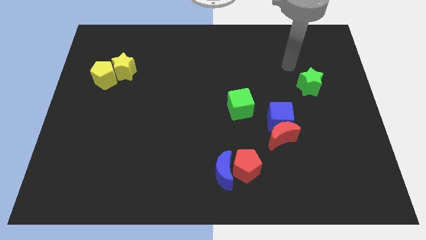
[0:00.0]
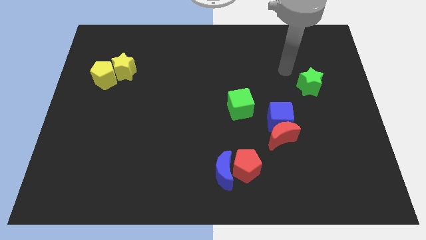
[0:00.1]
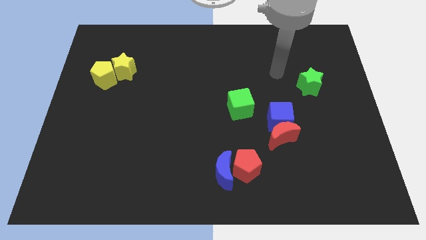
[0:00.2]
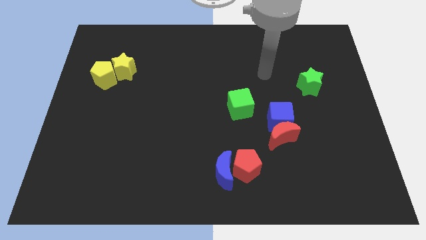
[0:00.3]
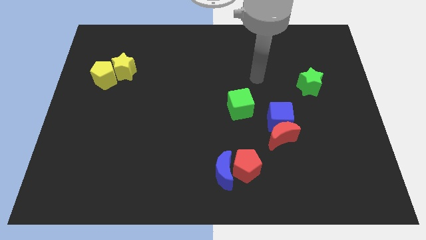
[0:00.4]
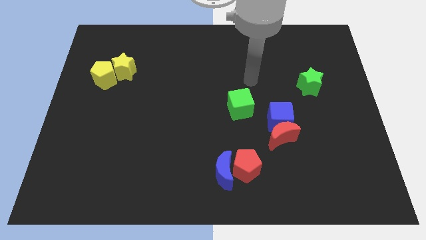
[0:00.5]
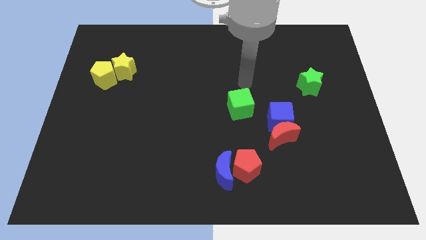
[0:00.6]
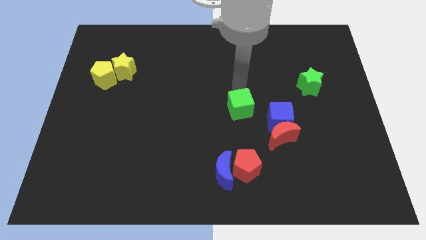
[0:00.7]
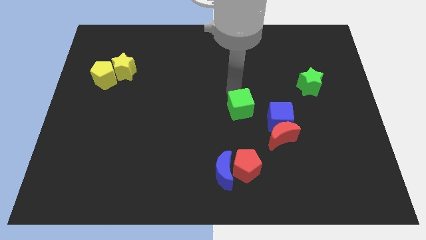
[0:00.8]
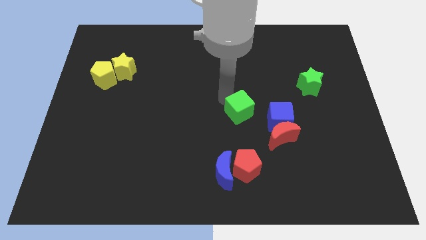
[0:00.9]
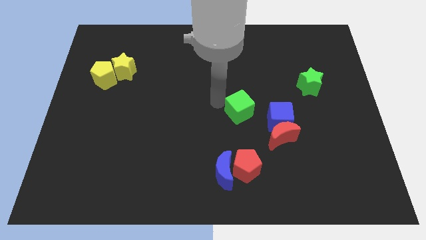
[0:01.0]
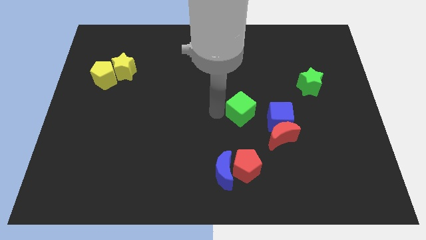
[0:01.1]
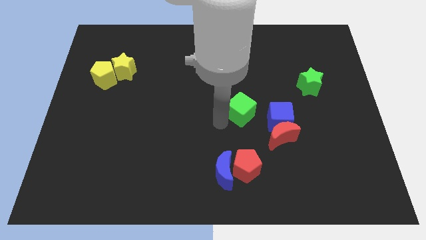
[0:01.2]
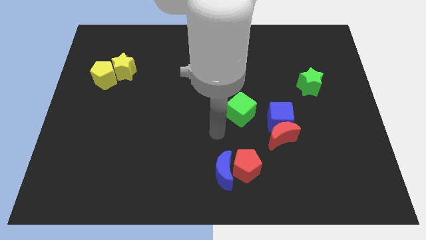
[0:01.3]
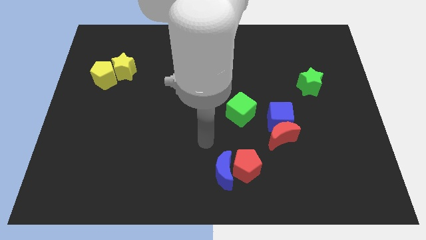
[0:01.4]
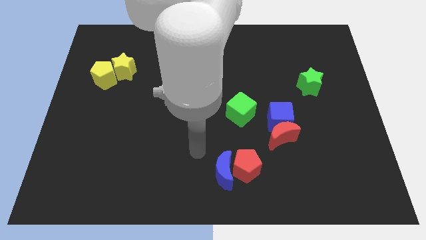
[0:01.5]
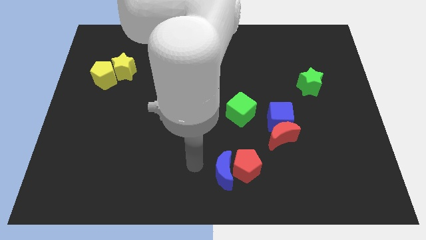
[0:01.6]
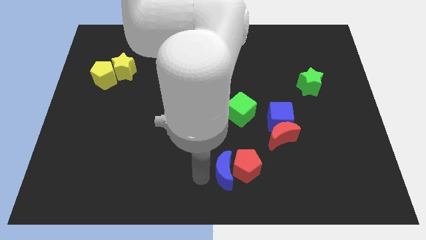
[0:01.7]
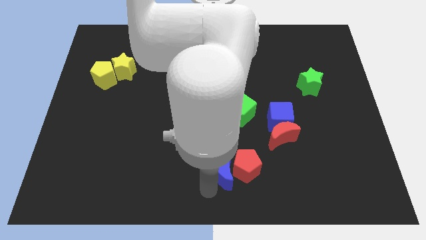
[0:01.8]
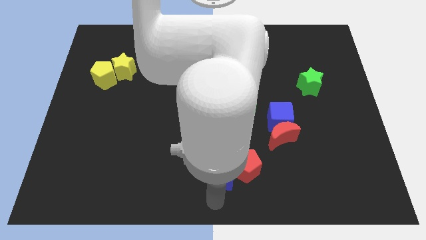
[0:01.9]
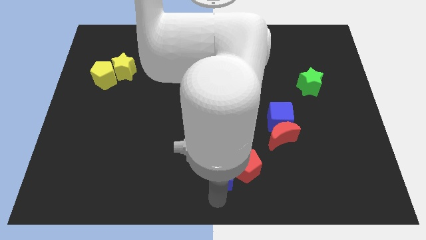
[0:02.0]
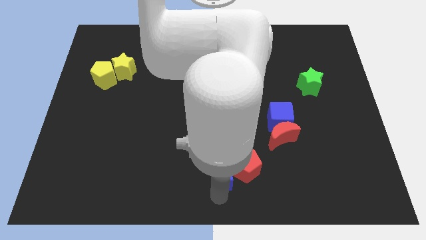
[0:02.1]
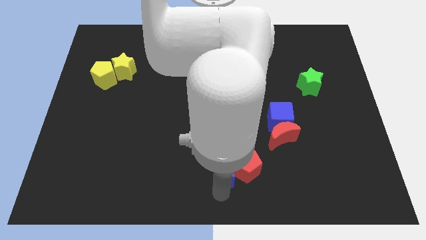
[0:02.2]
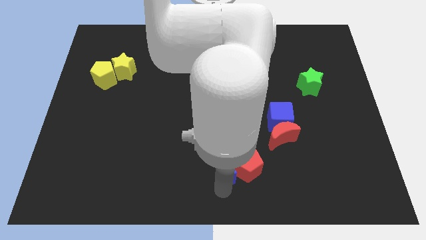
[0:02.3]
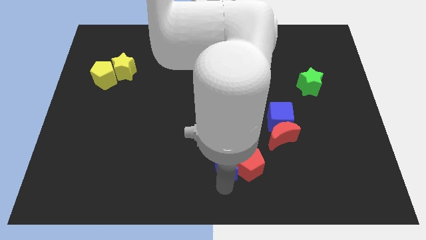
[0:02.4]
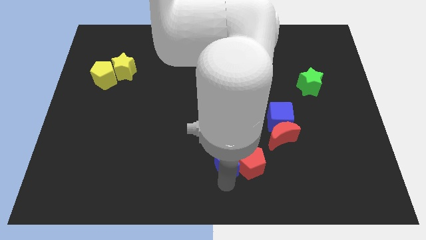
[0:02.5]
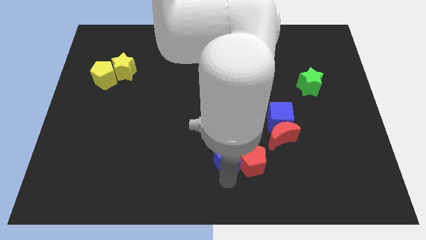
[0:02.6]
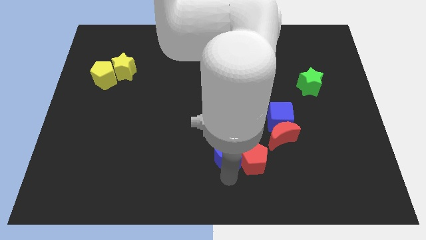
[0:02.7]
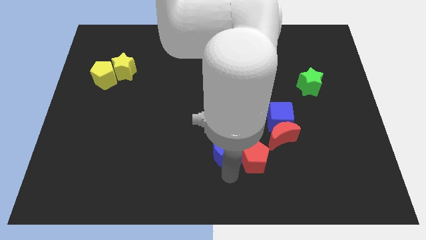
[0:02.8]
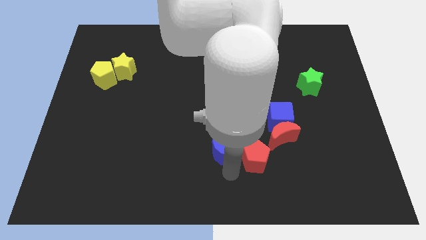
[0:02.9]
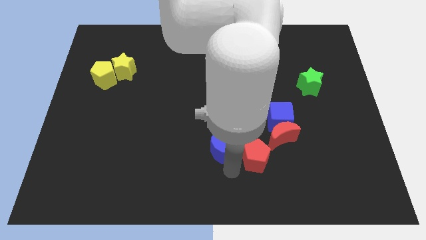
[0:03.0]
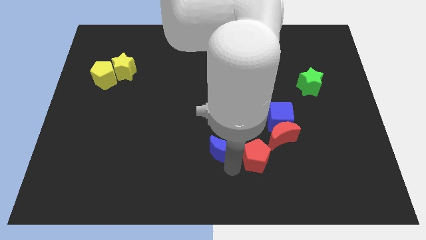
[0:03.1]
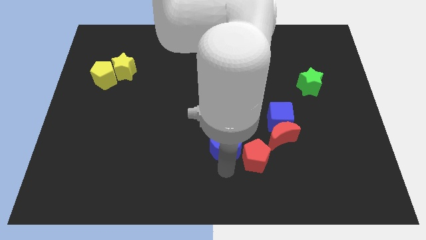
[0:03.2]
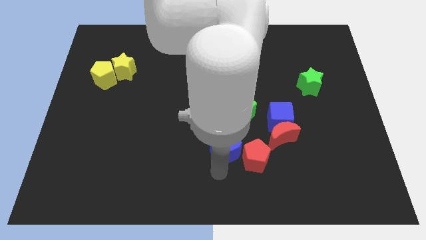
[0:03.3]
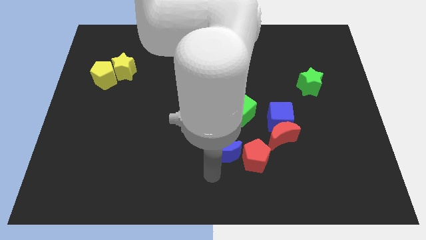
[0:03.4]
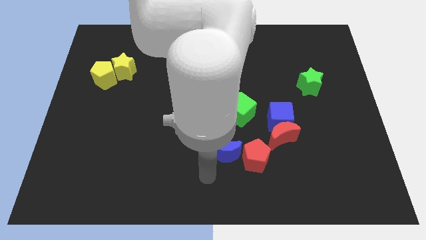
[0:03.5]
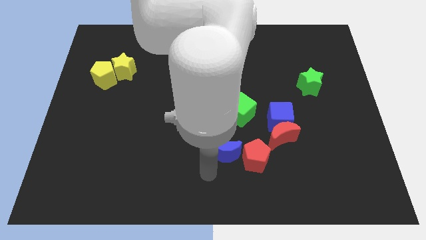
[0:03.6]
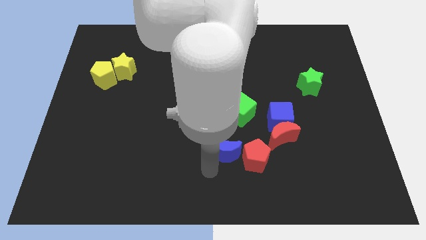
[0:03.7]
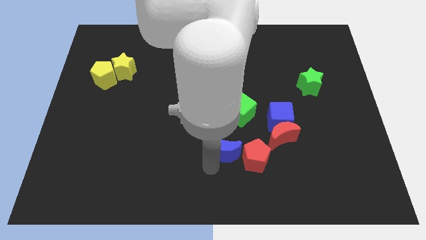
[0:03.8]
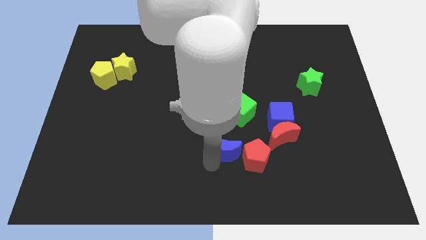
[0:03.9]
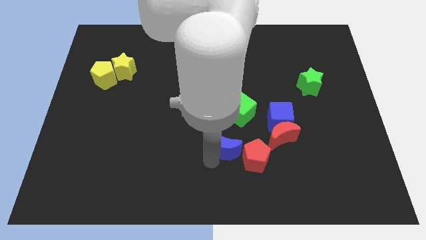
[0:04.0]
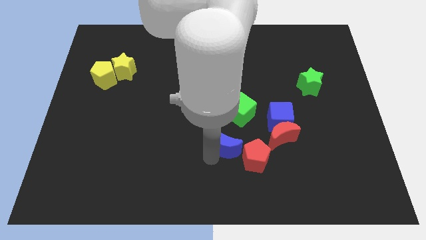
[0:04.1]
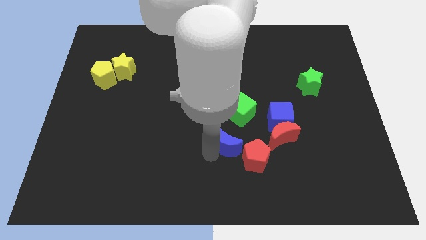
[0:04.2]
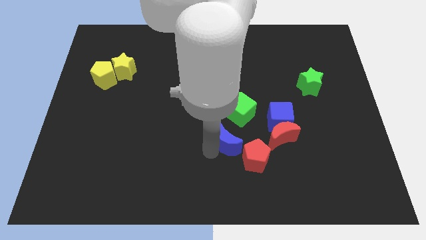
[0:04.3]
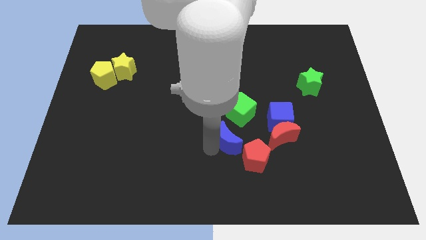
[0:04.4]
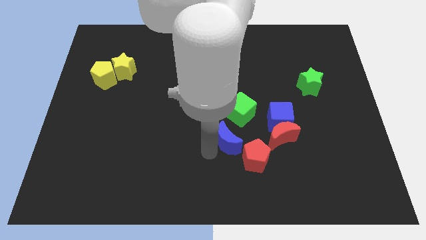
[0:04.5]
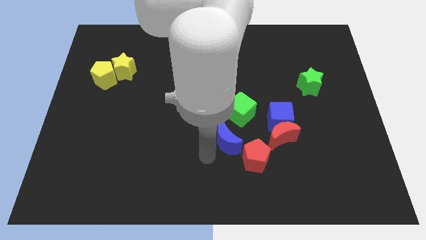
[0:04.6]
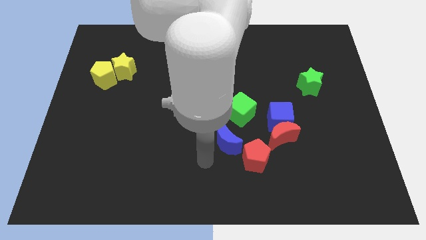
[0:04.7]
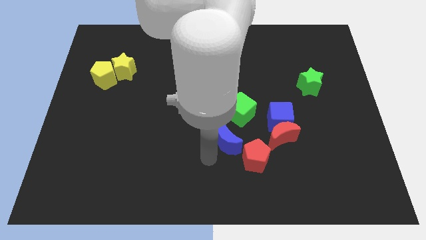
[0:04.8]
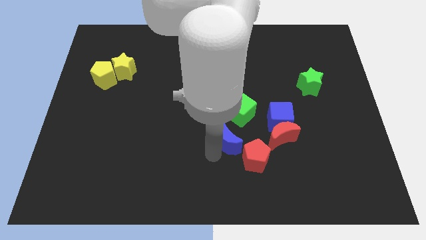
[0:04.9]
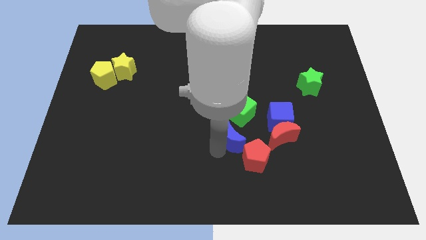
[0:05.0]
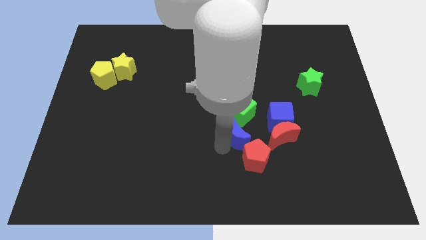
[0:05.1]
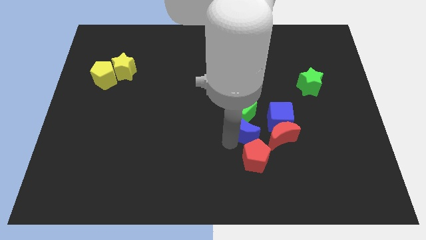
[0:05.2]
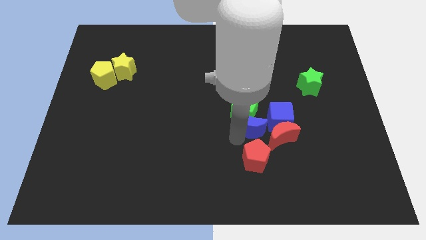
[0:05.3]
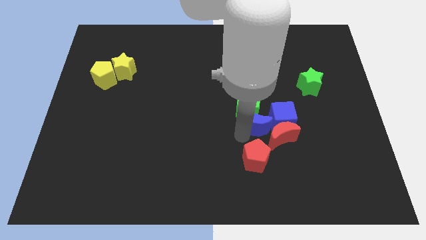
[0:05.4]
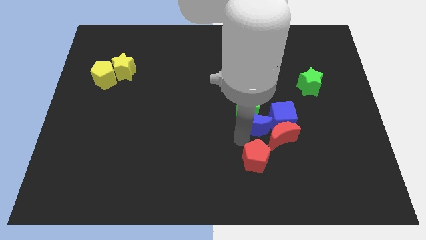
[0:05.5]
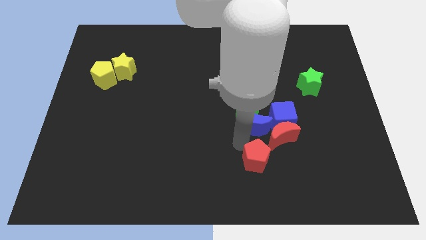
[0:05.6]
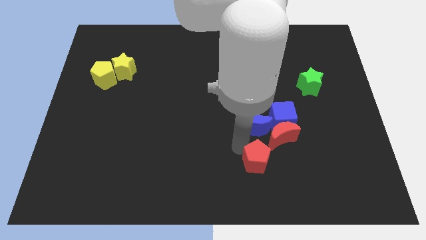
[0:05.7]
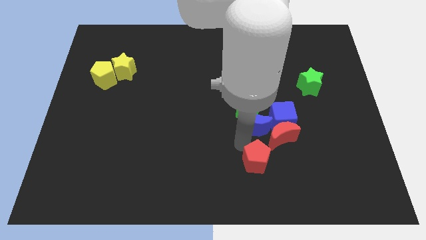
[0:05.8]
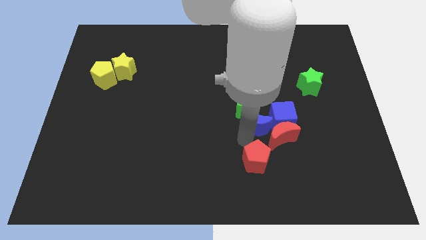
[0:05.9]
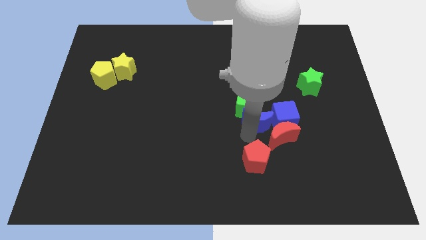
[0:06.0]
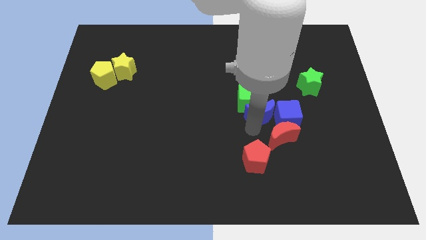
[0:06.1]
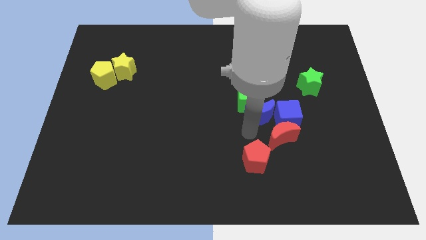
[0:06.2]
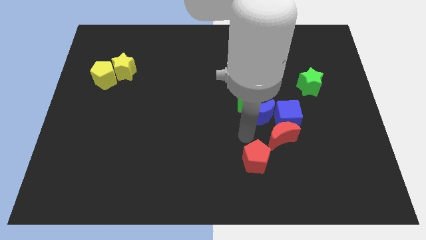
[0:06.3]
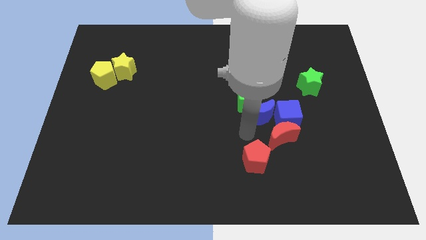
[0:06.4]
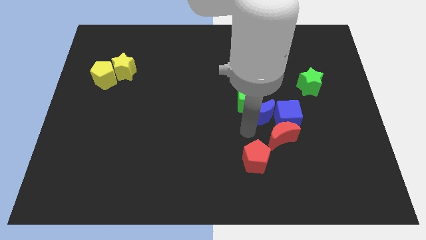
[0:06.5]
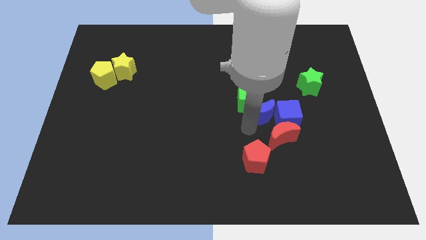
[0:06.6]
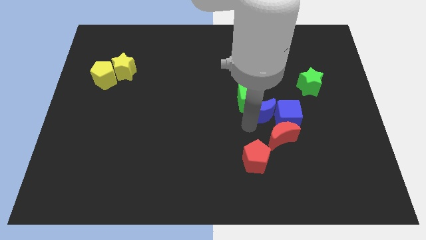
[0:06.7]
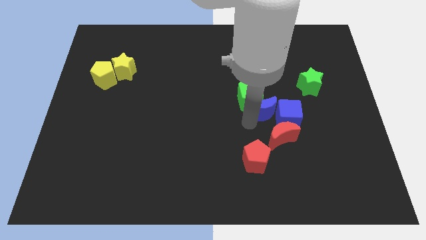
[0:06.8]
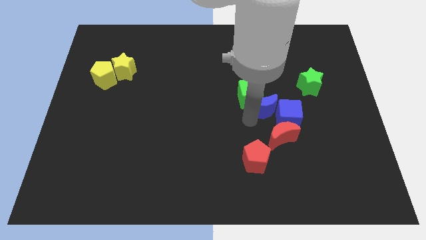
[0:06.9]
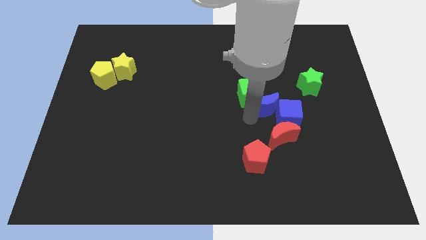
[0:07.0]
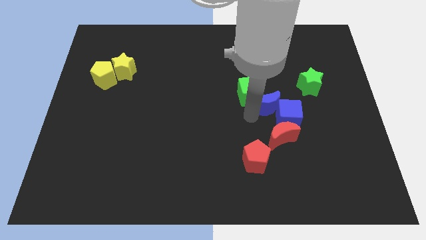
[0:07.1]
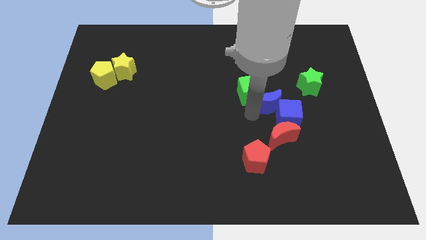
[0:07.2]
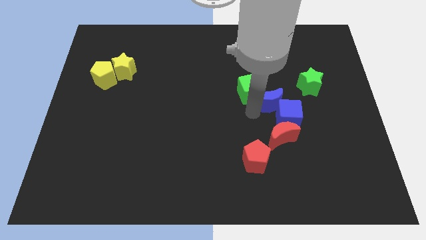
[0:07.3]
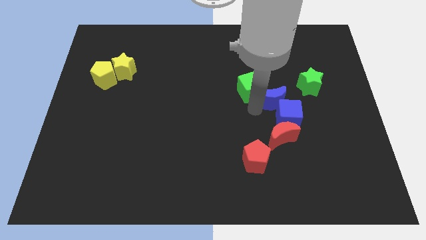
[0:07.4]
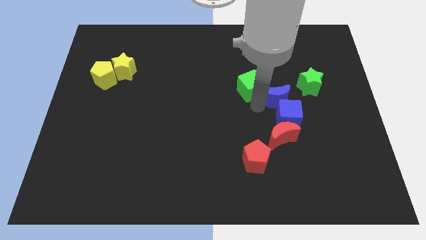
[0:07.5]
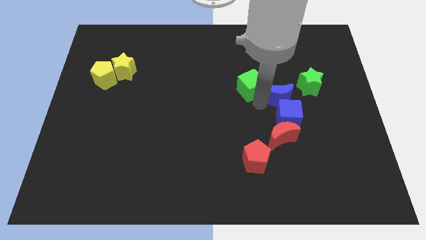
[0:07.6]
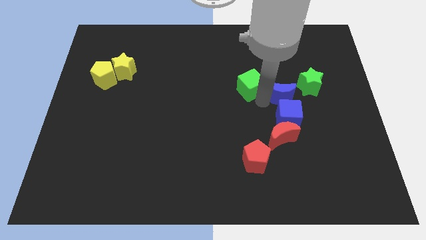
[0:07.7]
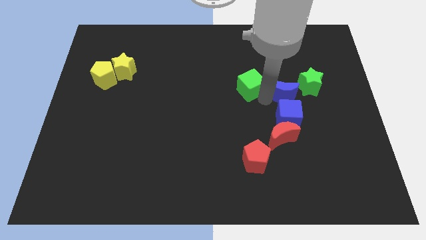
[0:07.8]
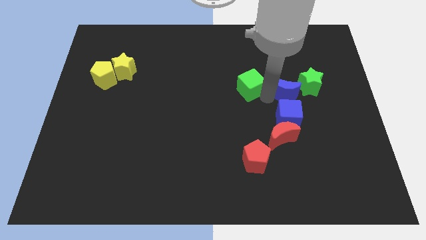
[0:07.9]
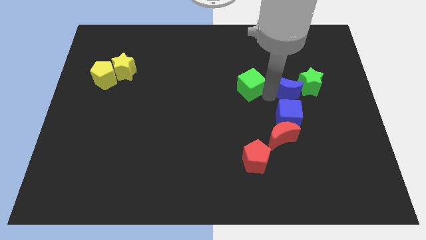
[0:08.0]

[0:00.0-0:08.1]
push the blue moon close to the green star
